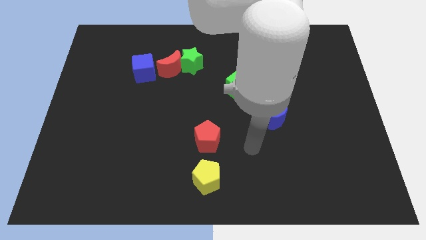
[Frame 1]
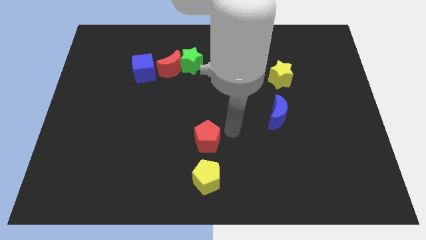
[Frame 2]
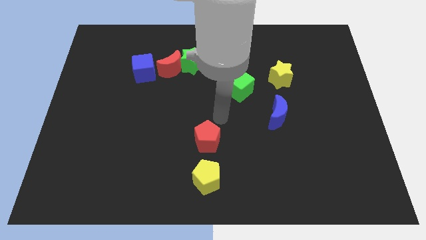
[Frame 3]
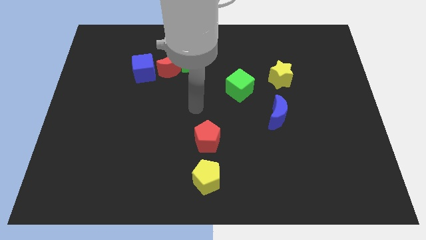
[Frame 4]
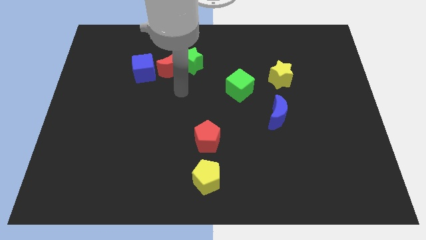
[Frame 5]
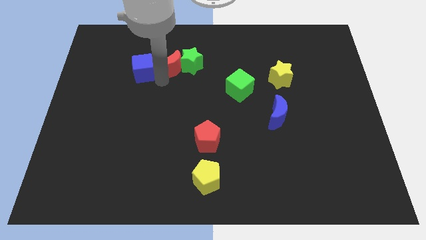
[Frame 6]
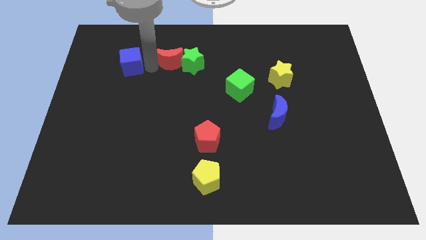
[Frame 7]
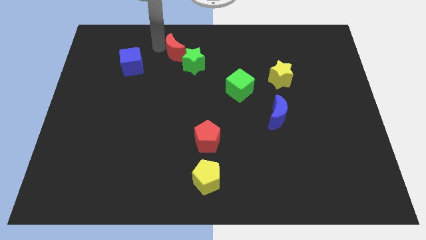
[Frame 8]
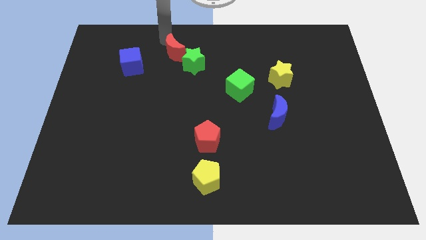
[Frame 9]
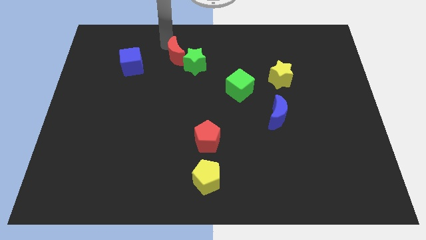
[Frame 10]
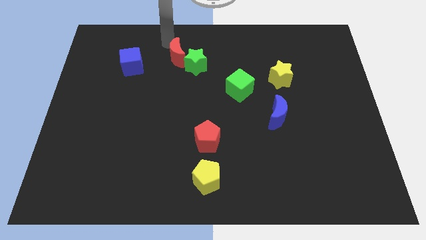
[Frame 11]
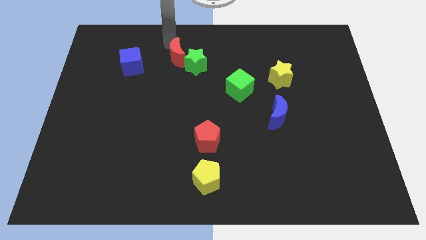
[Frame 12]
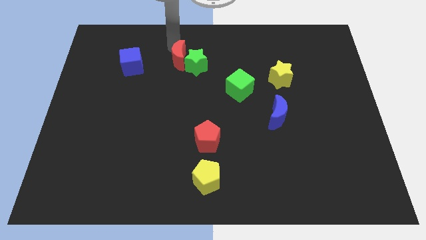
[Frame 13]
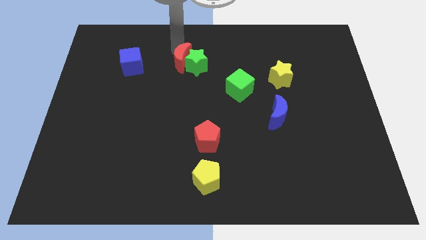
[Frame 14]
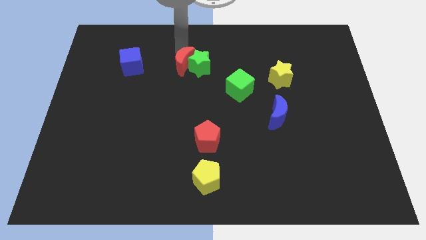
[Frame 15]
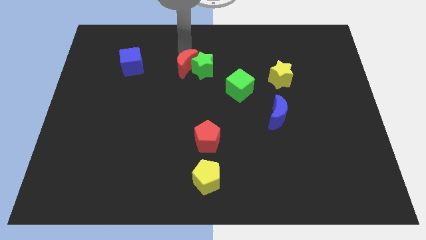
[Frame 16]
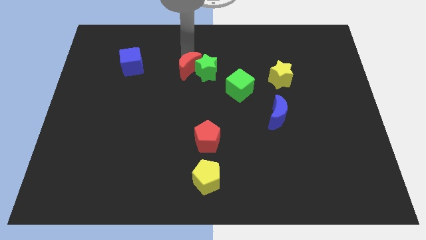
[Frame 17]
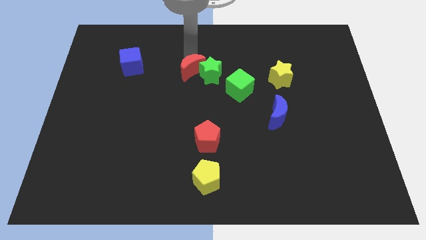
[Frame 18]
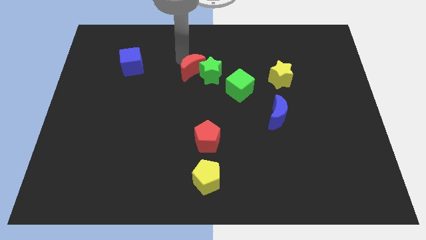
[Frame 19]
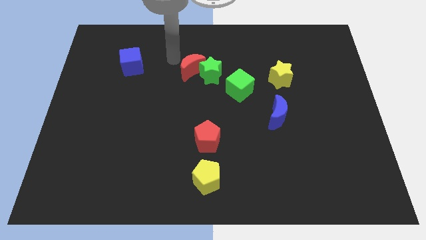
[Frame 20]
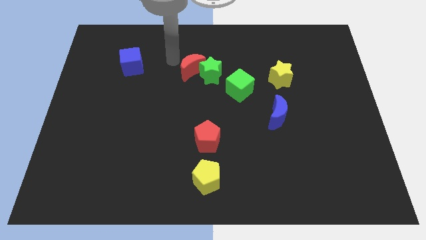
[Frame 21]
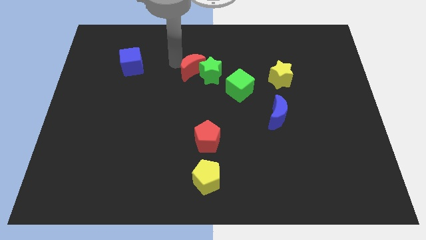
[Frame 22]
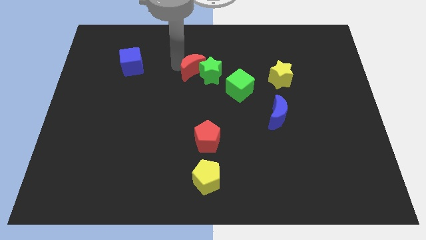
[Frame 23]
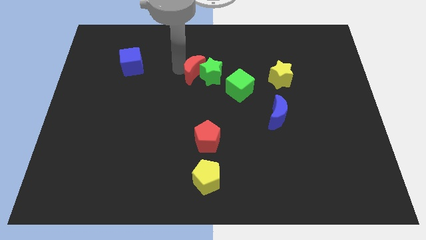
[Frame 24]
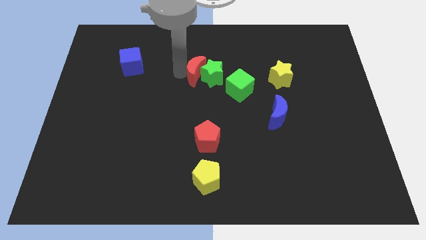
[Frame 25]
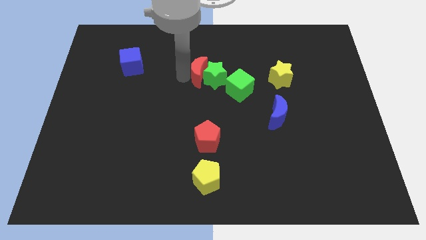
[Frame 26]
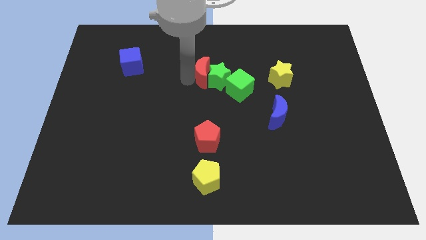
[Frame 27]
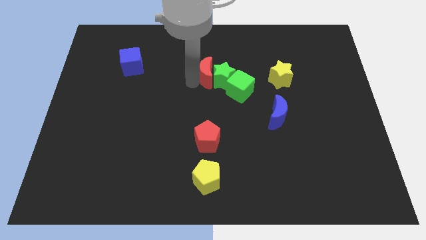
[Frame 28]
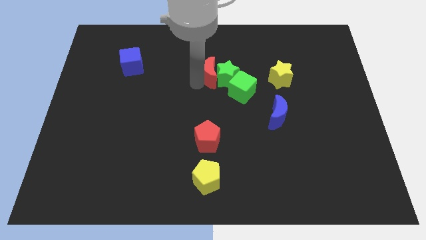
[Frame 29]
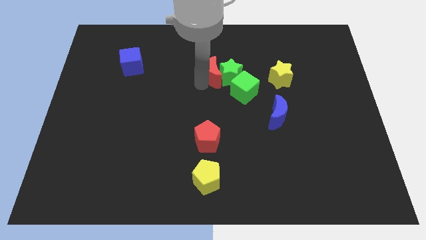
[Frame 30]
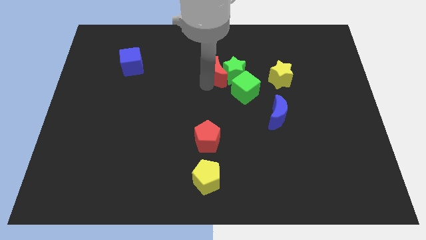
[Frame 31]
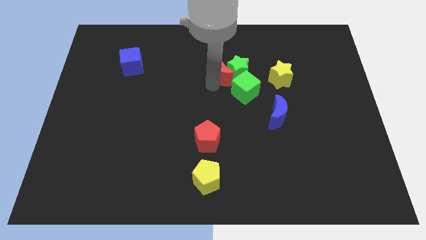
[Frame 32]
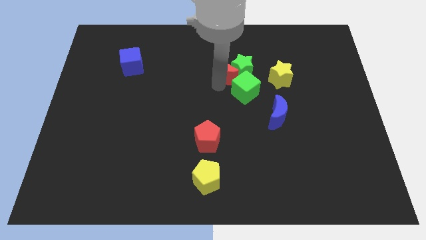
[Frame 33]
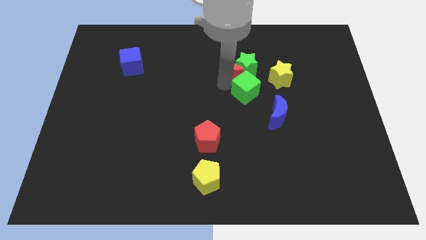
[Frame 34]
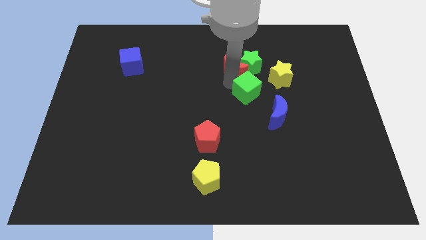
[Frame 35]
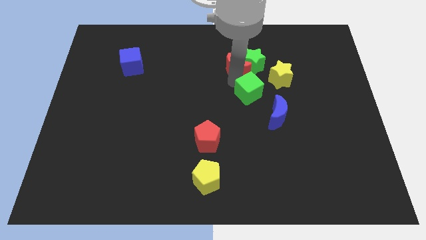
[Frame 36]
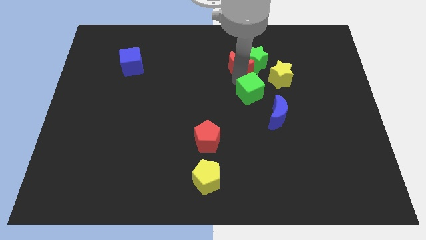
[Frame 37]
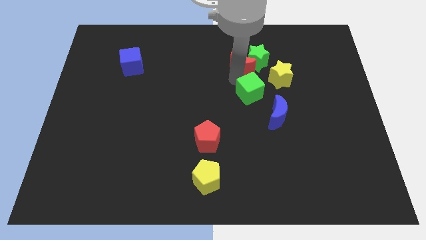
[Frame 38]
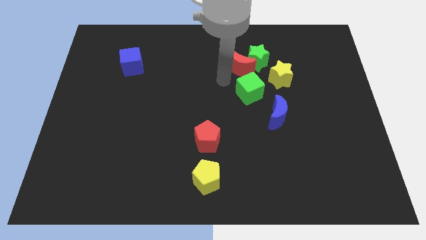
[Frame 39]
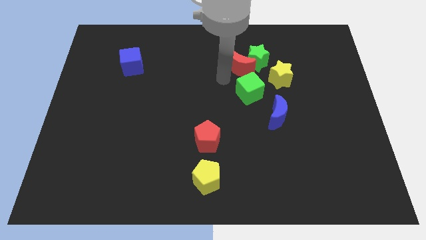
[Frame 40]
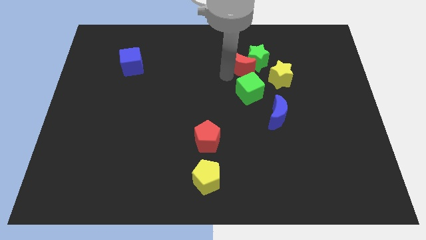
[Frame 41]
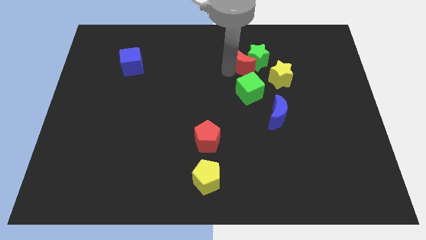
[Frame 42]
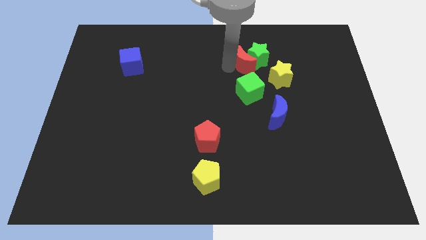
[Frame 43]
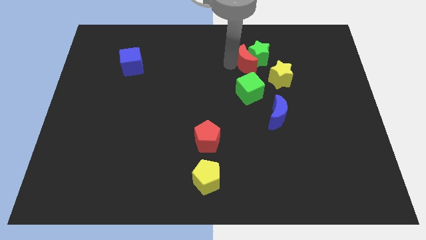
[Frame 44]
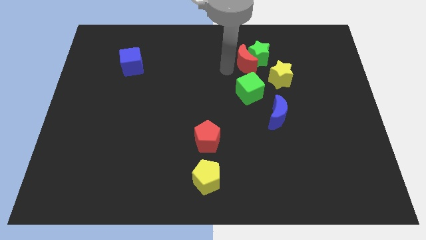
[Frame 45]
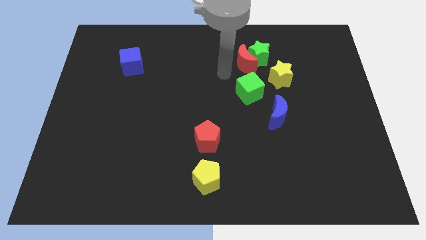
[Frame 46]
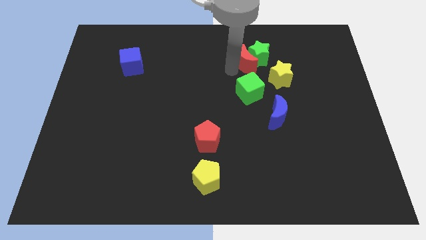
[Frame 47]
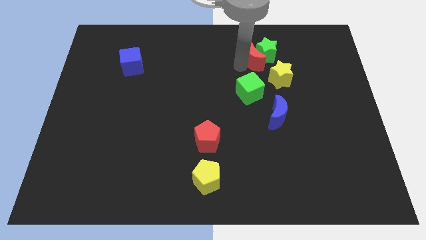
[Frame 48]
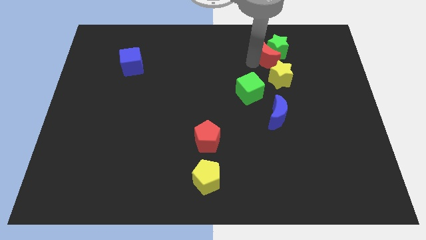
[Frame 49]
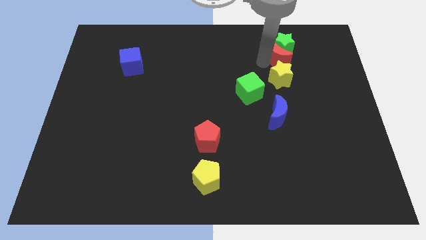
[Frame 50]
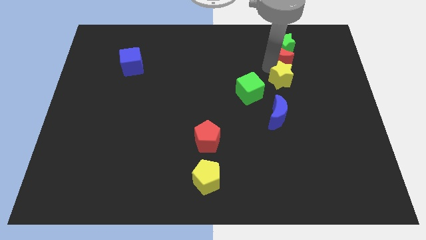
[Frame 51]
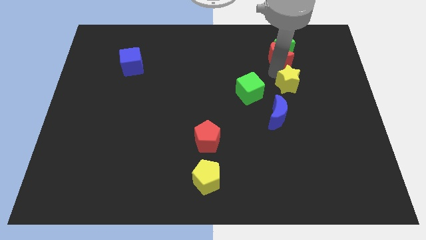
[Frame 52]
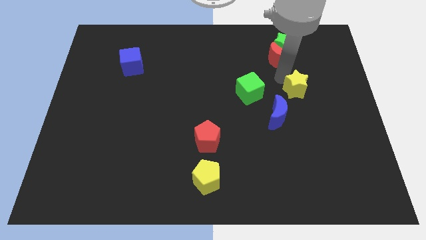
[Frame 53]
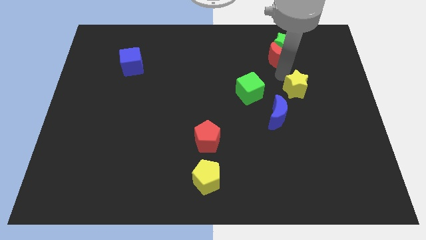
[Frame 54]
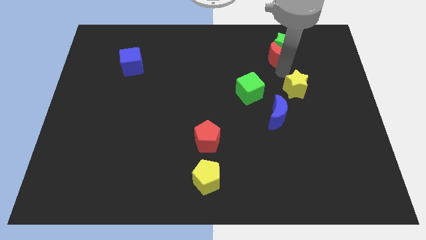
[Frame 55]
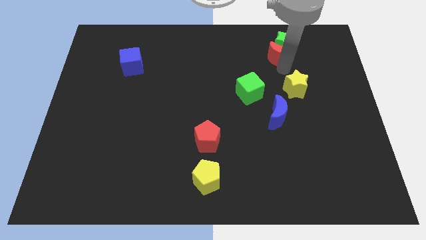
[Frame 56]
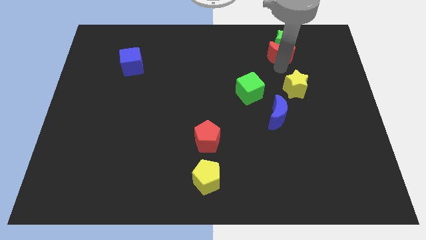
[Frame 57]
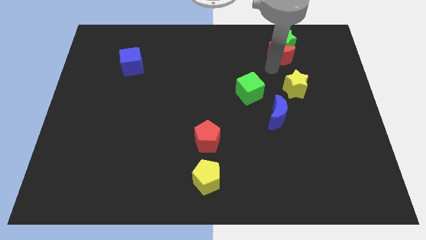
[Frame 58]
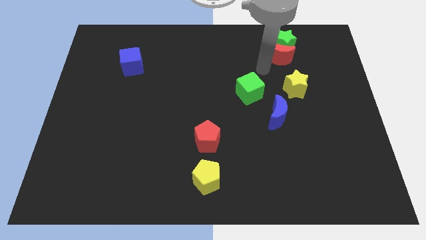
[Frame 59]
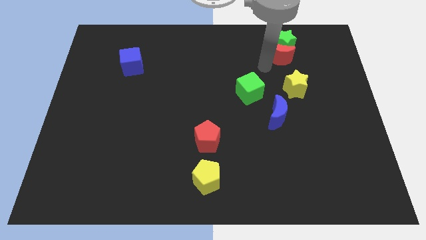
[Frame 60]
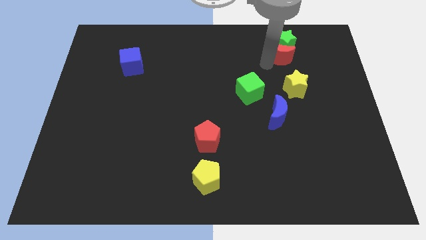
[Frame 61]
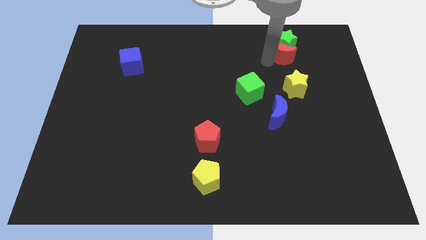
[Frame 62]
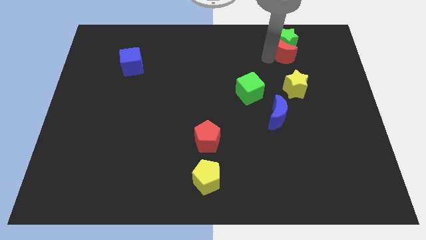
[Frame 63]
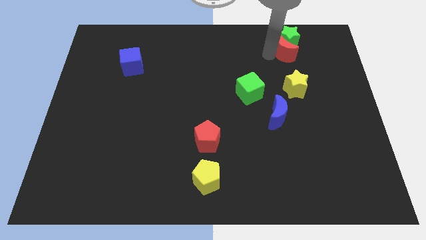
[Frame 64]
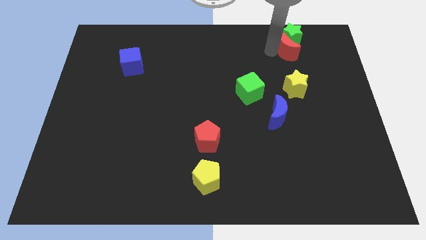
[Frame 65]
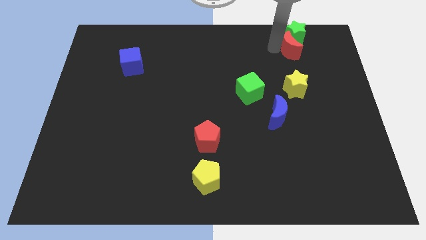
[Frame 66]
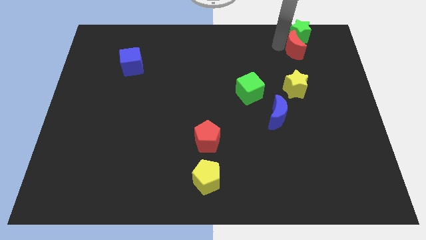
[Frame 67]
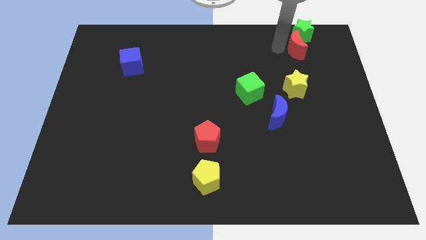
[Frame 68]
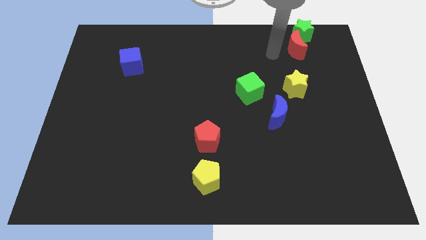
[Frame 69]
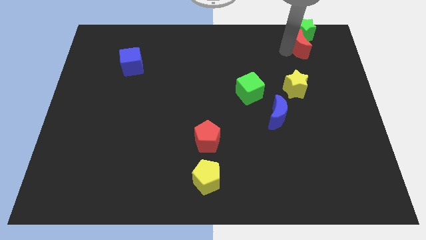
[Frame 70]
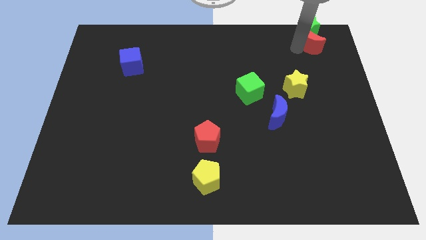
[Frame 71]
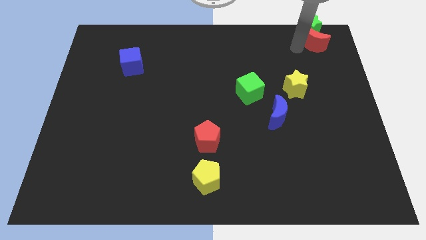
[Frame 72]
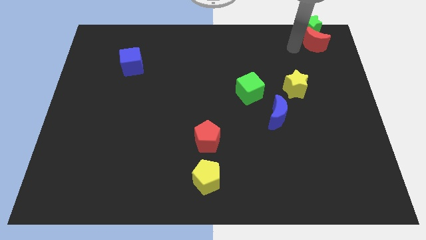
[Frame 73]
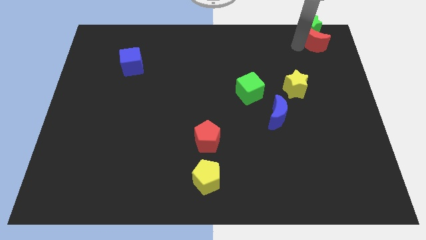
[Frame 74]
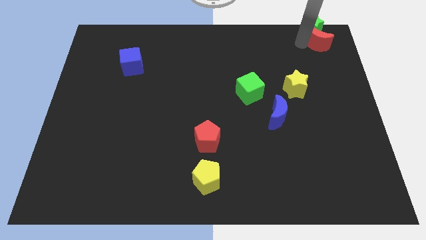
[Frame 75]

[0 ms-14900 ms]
put the red moon to the top right

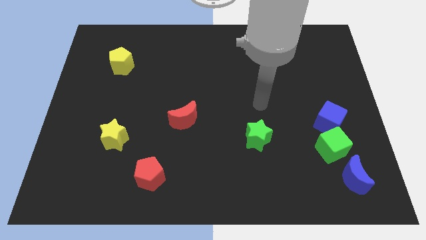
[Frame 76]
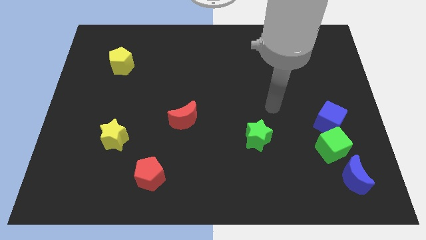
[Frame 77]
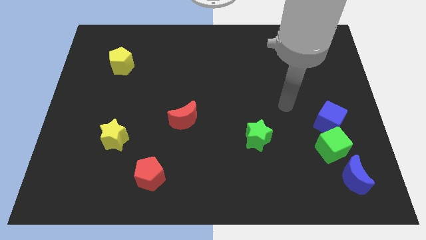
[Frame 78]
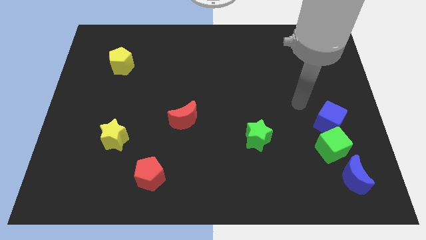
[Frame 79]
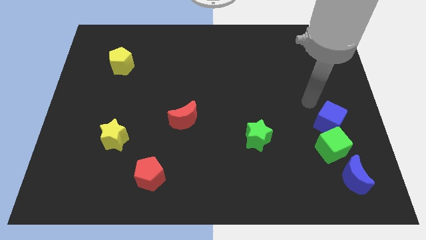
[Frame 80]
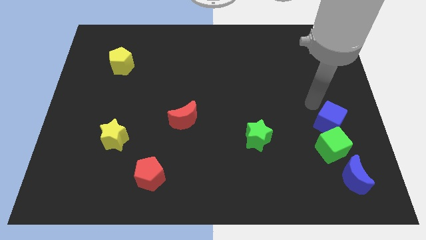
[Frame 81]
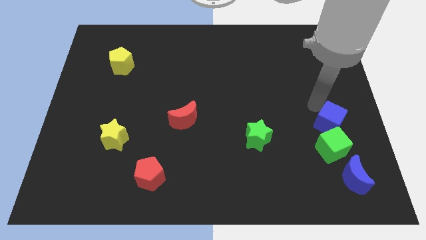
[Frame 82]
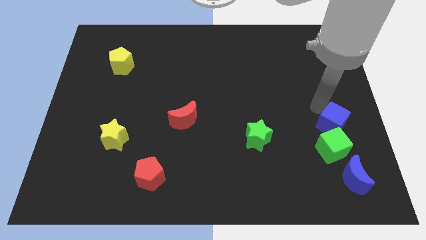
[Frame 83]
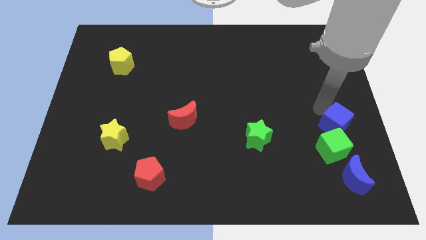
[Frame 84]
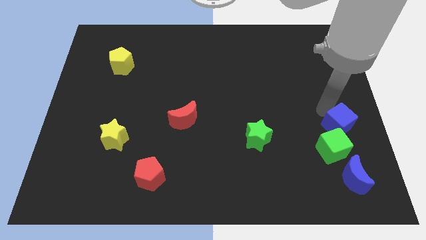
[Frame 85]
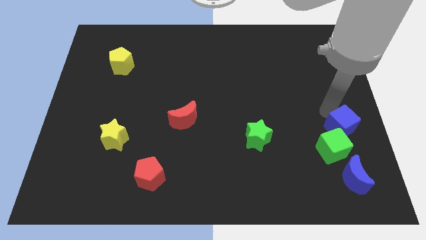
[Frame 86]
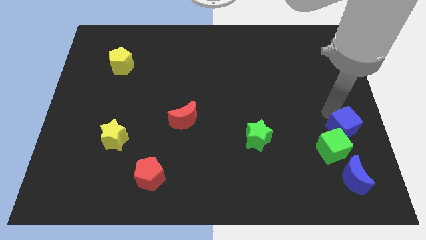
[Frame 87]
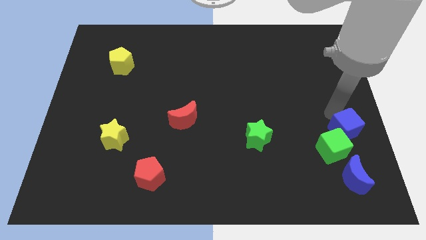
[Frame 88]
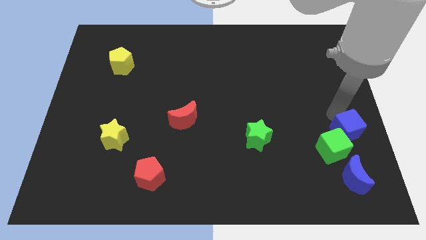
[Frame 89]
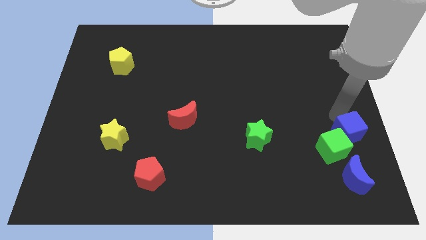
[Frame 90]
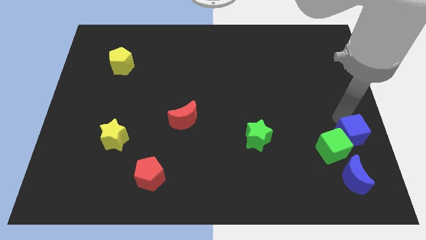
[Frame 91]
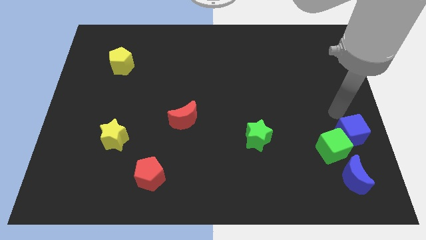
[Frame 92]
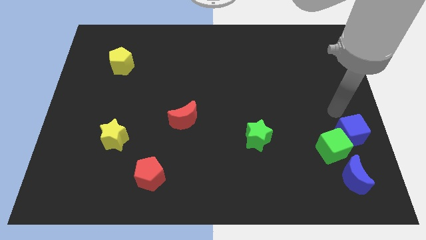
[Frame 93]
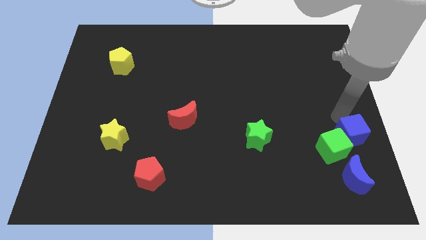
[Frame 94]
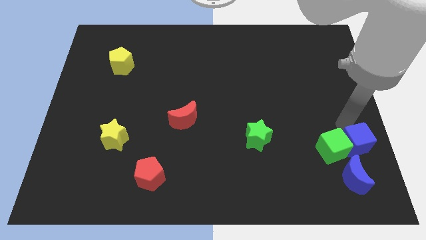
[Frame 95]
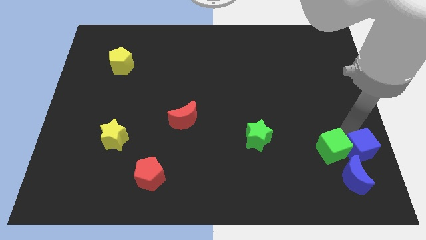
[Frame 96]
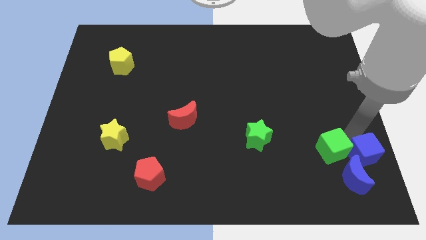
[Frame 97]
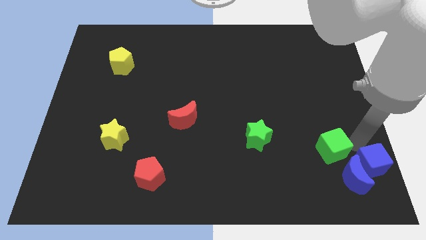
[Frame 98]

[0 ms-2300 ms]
put the blue cube to the lower right corner
